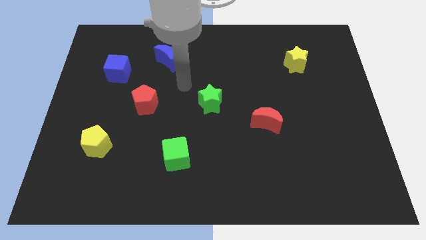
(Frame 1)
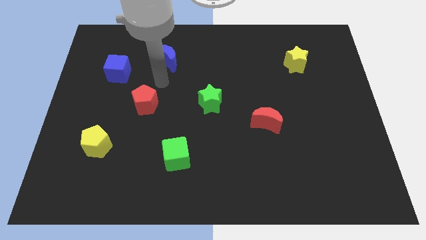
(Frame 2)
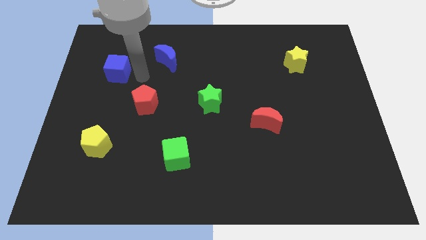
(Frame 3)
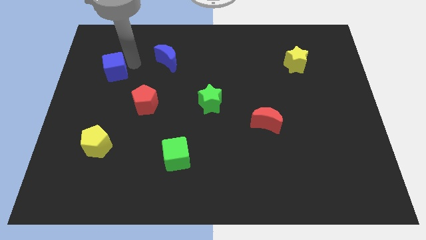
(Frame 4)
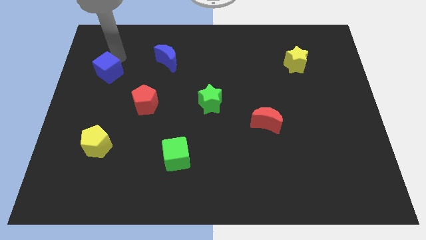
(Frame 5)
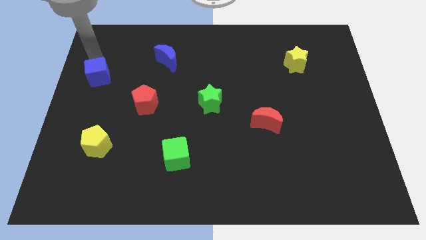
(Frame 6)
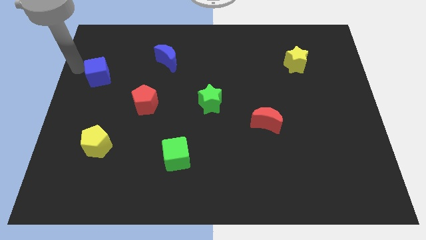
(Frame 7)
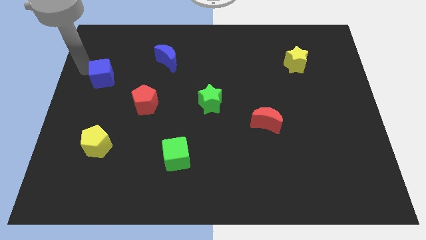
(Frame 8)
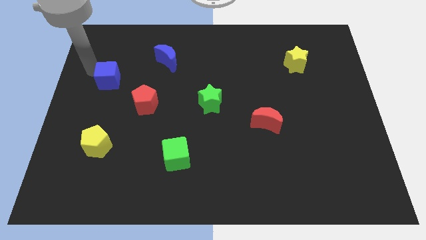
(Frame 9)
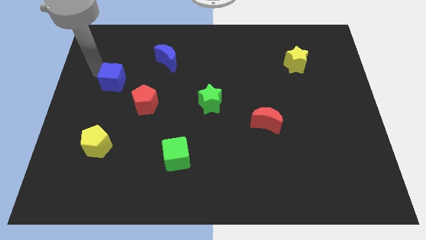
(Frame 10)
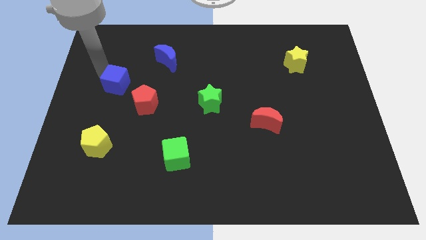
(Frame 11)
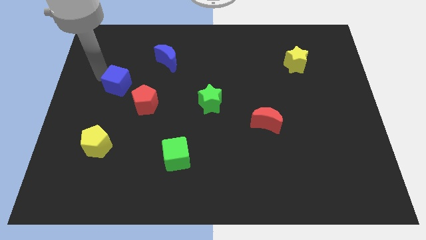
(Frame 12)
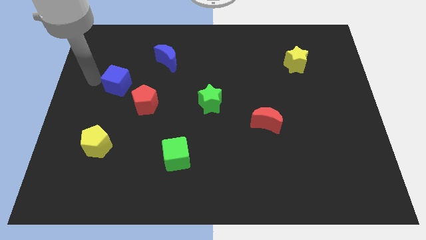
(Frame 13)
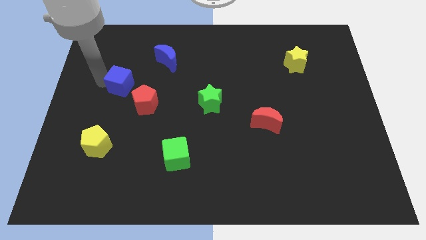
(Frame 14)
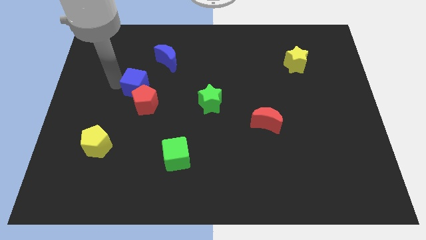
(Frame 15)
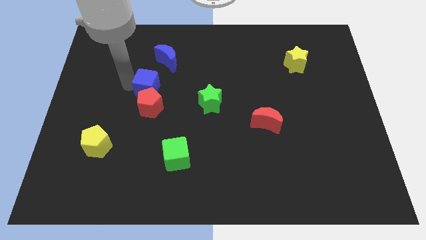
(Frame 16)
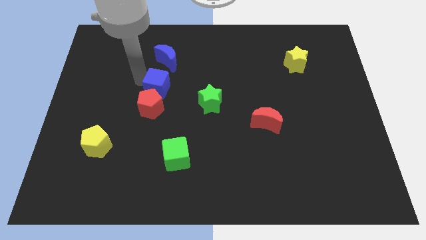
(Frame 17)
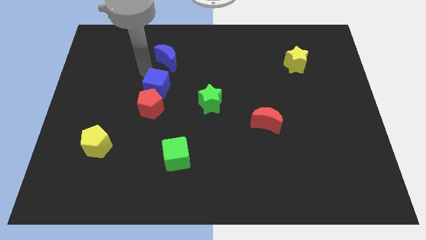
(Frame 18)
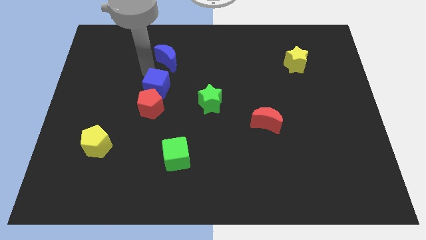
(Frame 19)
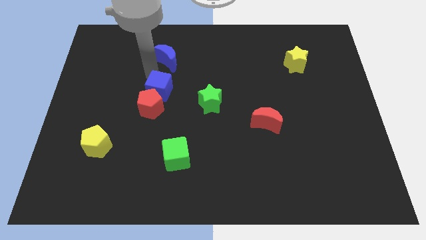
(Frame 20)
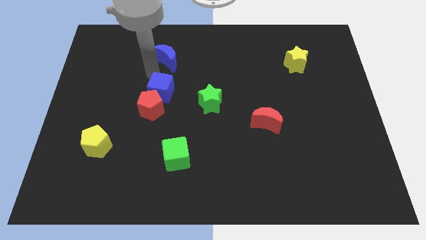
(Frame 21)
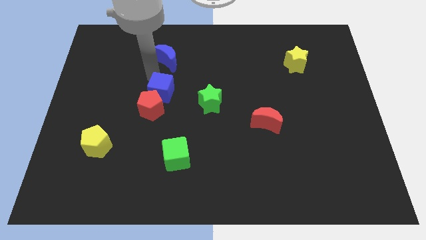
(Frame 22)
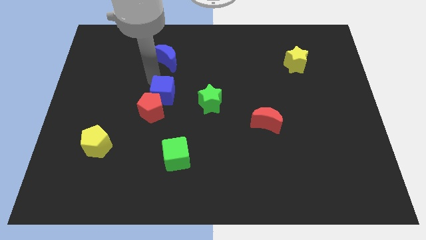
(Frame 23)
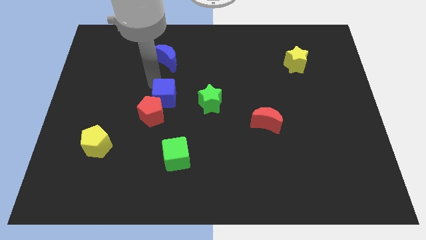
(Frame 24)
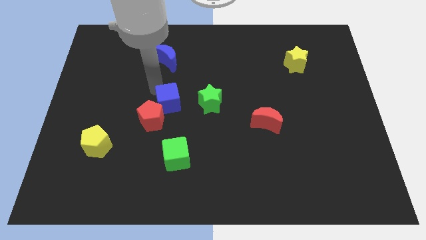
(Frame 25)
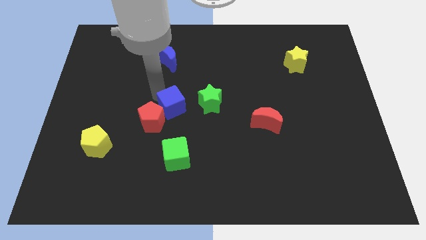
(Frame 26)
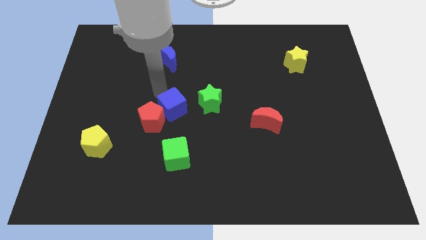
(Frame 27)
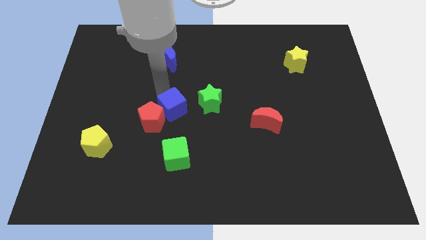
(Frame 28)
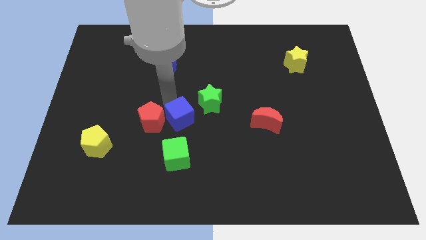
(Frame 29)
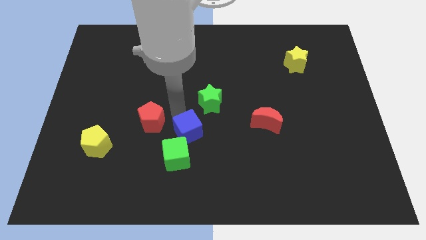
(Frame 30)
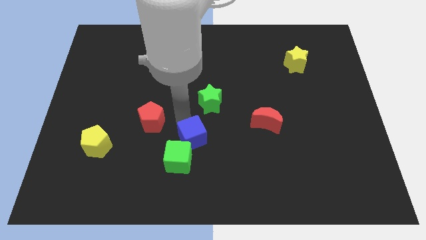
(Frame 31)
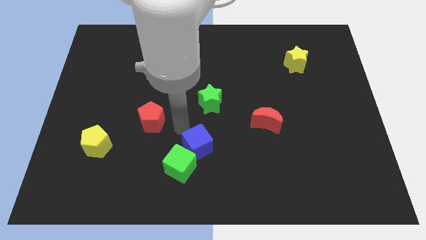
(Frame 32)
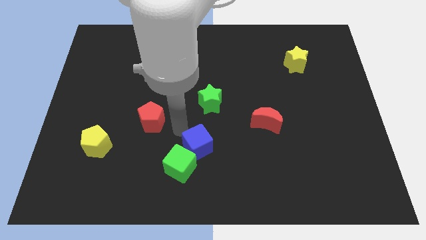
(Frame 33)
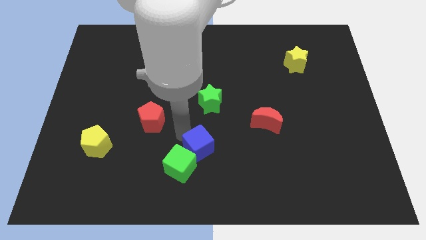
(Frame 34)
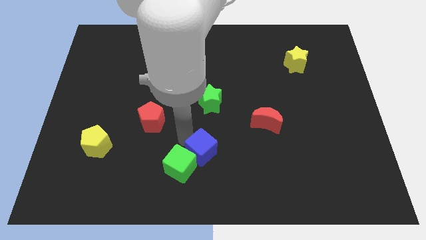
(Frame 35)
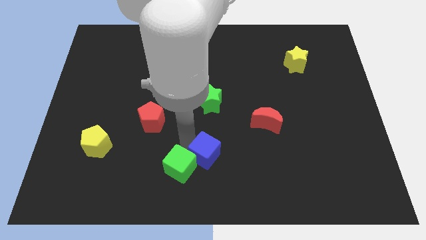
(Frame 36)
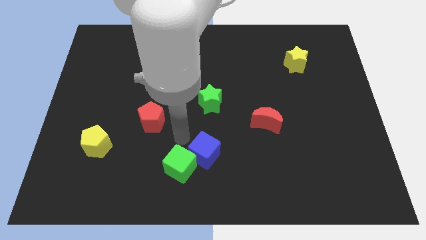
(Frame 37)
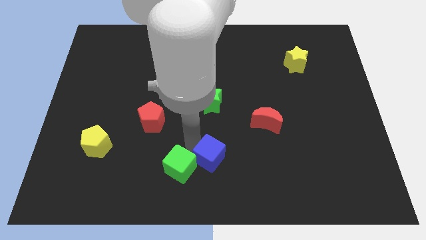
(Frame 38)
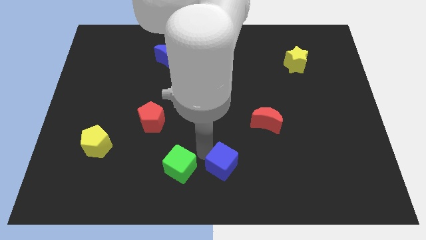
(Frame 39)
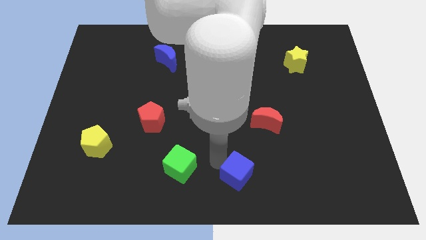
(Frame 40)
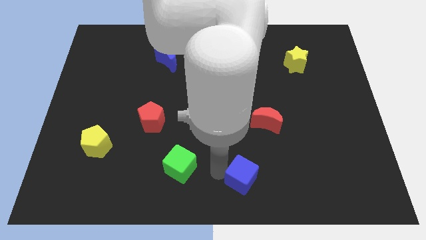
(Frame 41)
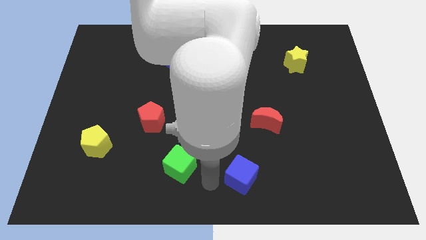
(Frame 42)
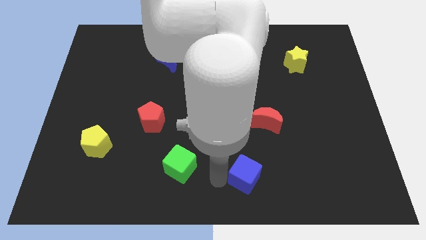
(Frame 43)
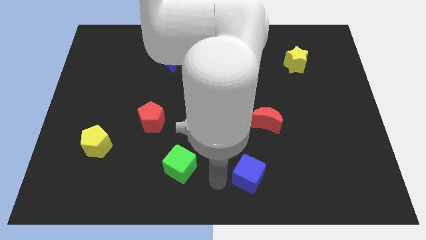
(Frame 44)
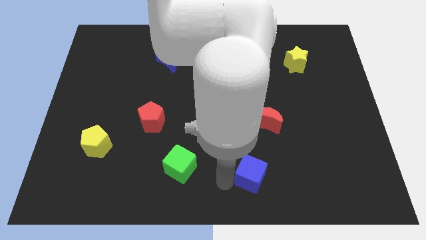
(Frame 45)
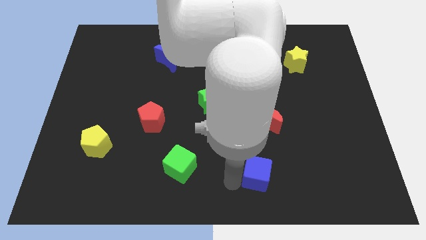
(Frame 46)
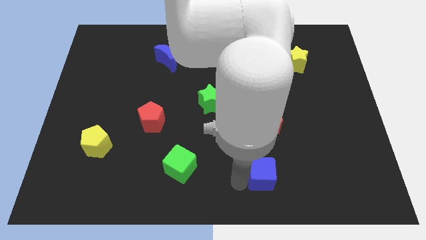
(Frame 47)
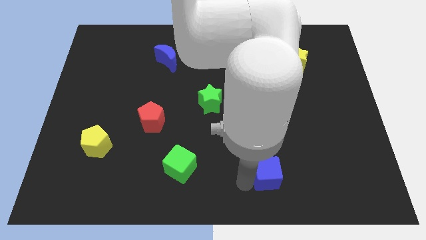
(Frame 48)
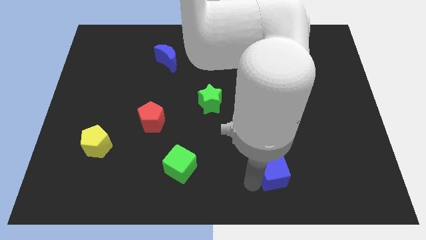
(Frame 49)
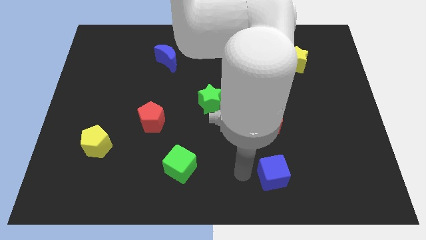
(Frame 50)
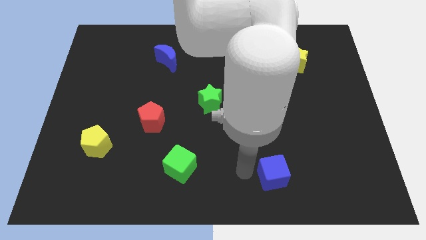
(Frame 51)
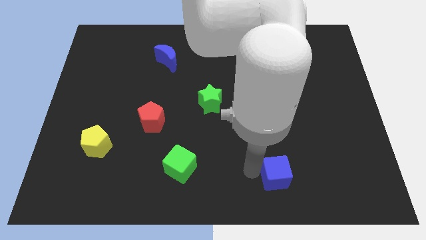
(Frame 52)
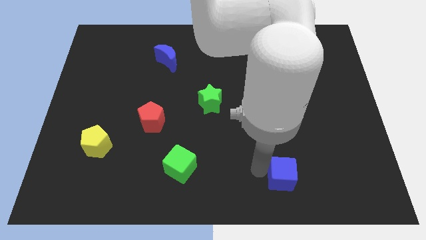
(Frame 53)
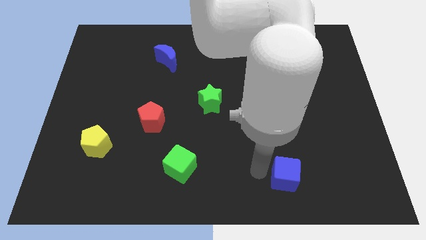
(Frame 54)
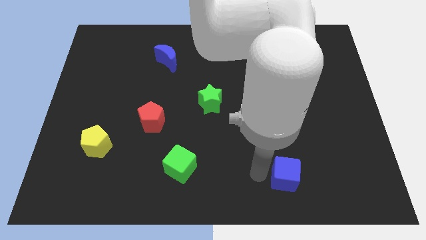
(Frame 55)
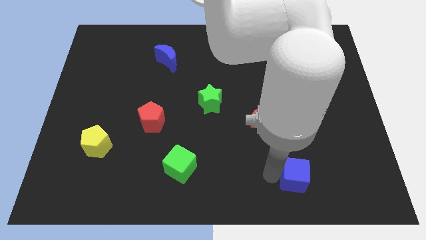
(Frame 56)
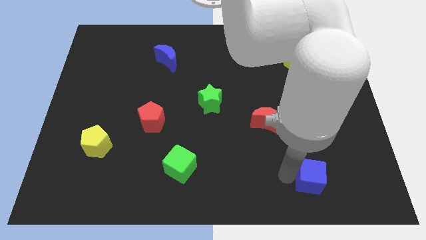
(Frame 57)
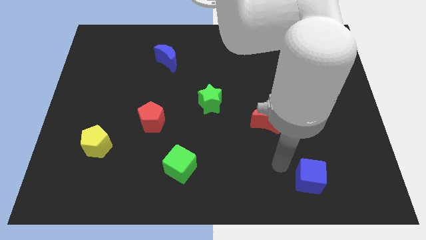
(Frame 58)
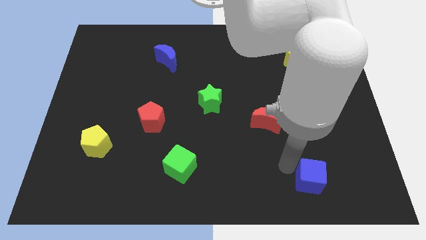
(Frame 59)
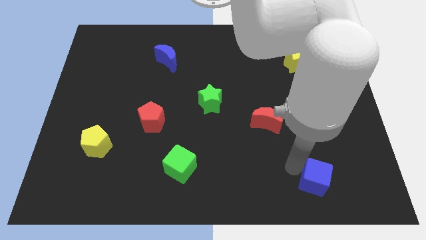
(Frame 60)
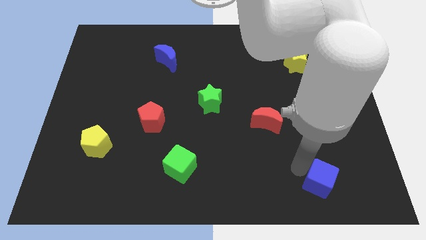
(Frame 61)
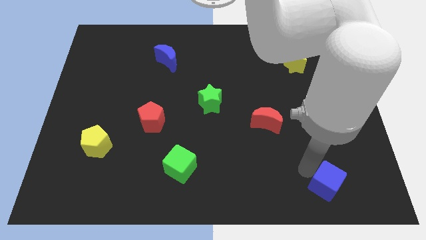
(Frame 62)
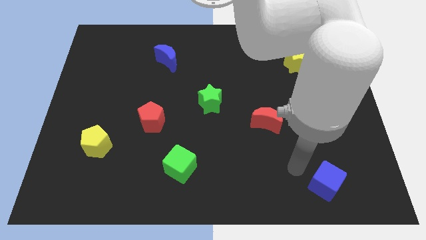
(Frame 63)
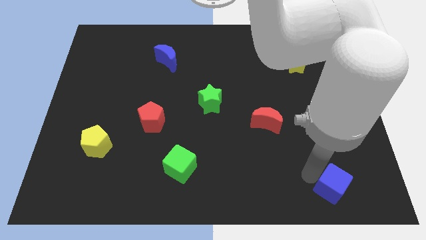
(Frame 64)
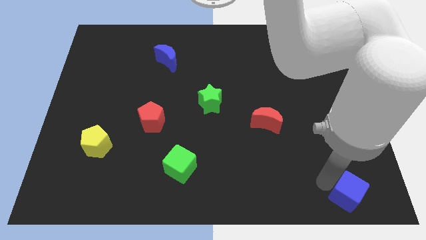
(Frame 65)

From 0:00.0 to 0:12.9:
put the blue cube to the bottom right corner

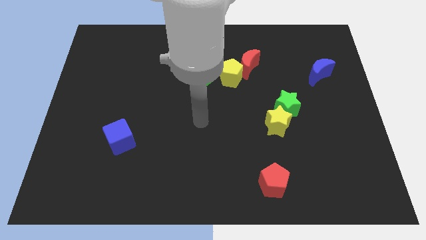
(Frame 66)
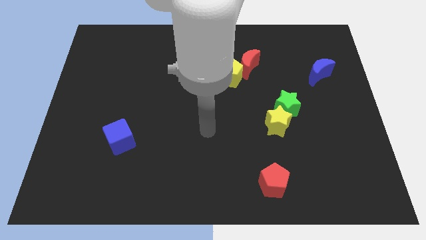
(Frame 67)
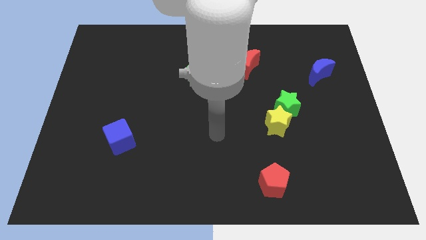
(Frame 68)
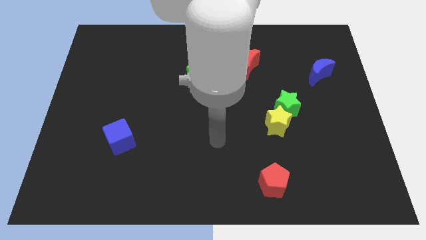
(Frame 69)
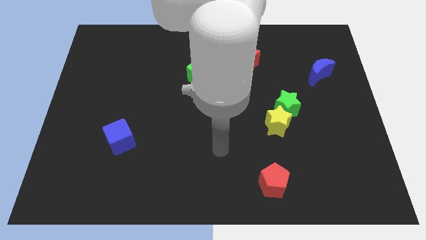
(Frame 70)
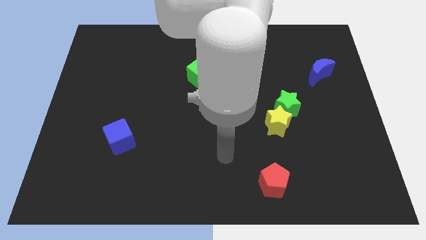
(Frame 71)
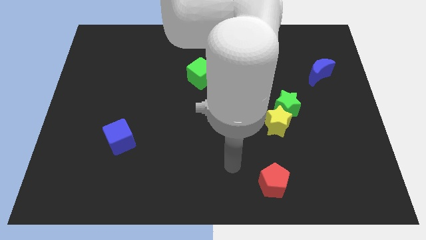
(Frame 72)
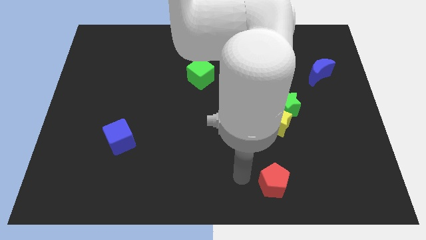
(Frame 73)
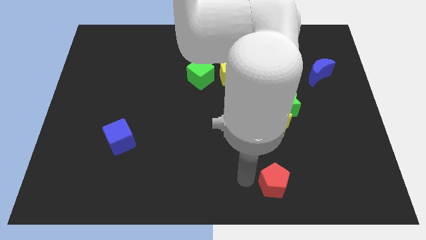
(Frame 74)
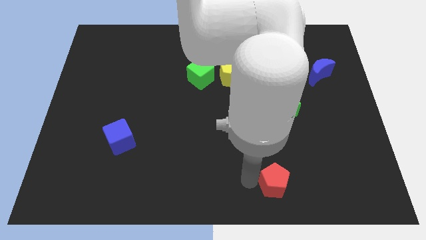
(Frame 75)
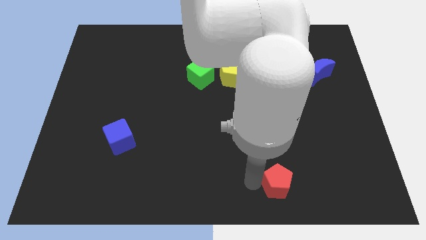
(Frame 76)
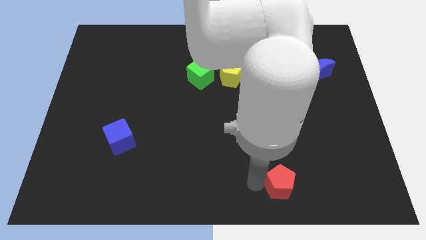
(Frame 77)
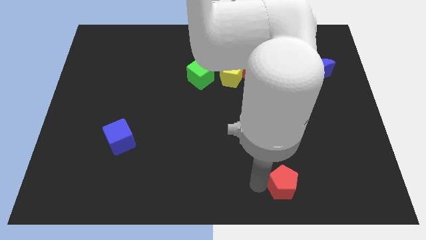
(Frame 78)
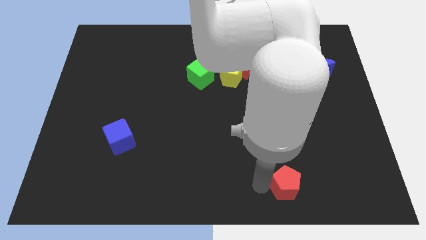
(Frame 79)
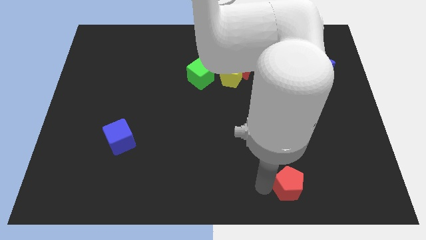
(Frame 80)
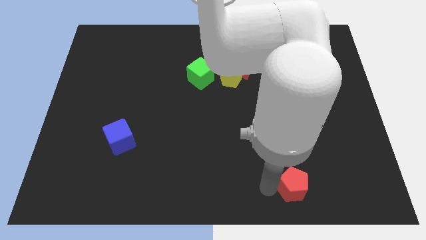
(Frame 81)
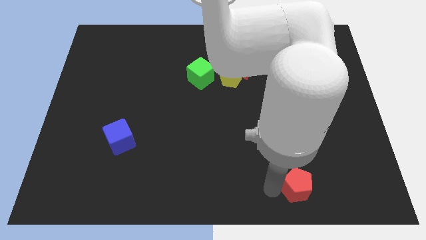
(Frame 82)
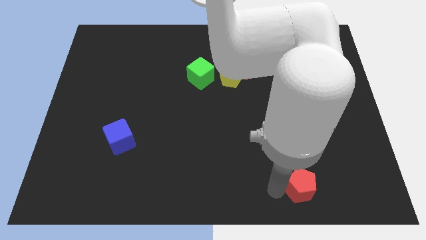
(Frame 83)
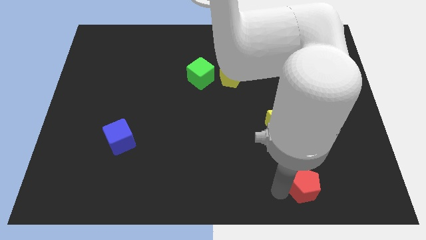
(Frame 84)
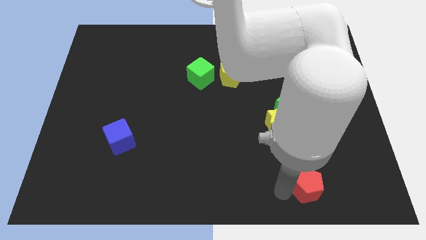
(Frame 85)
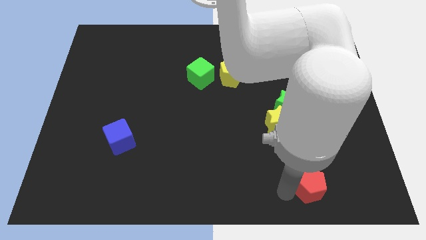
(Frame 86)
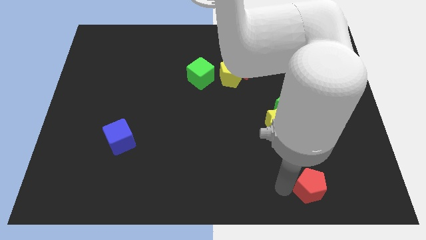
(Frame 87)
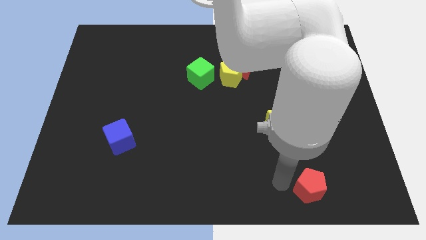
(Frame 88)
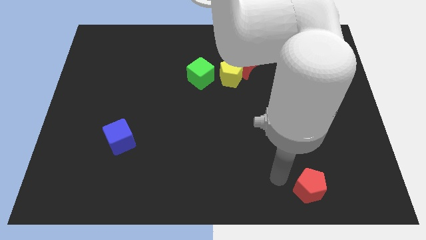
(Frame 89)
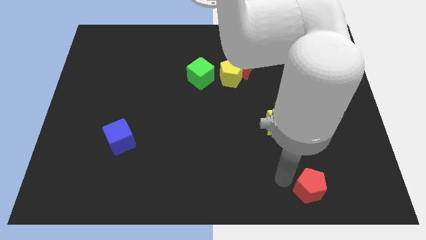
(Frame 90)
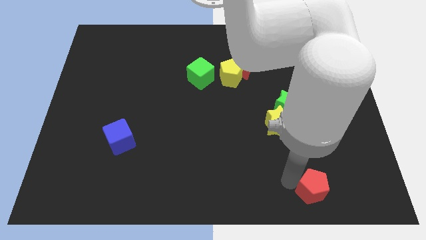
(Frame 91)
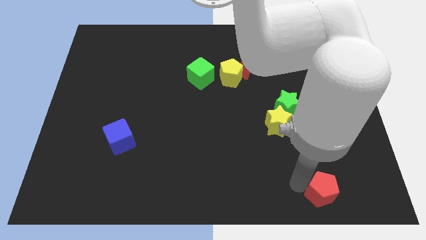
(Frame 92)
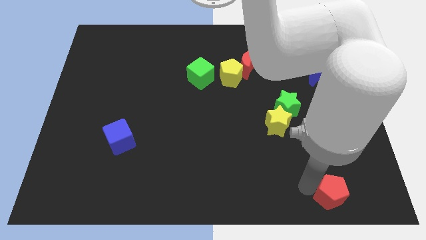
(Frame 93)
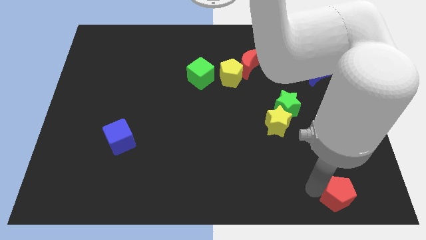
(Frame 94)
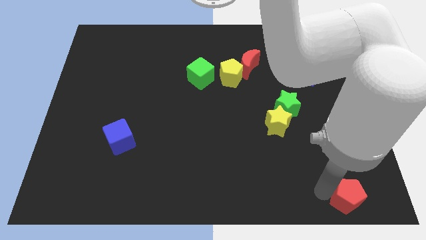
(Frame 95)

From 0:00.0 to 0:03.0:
slide the red pentagon to the bottom right corner
